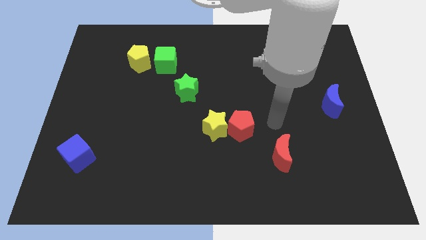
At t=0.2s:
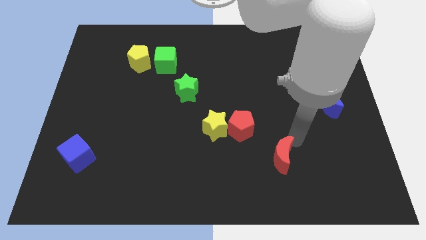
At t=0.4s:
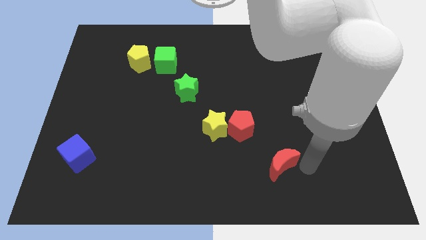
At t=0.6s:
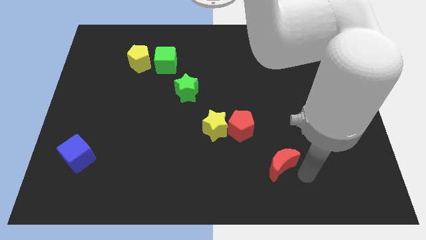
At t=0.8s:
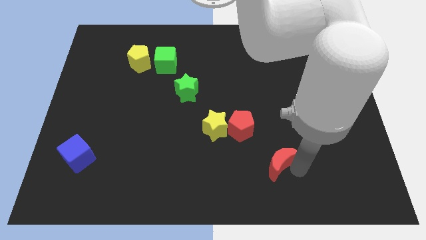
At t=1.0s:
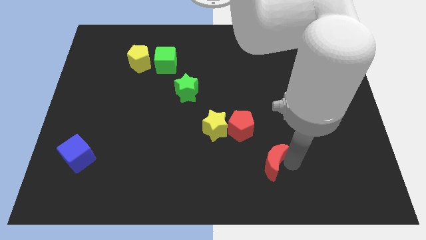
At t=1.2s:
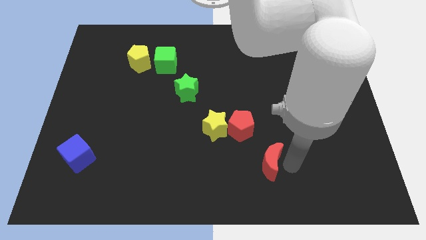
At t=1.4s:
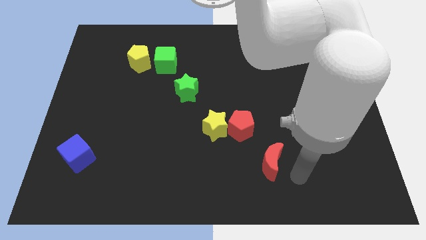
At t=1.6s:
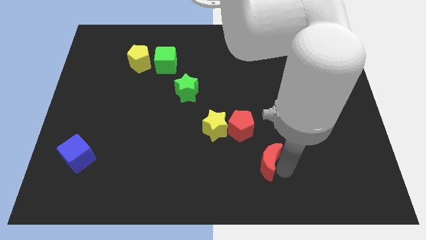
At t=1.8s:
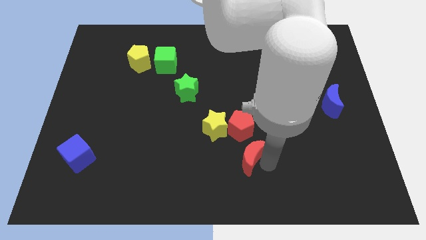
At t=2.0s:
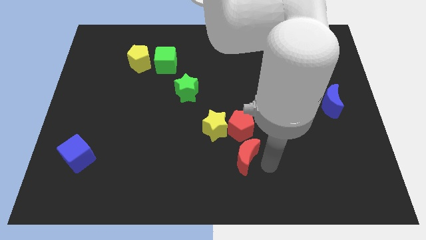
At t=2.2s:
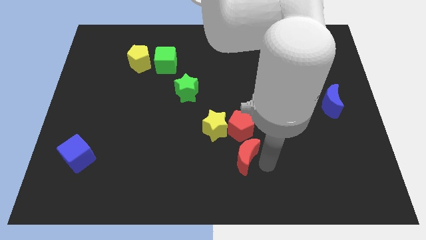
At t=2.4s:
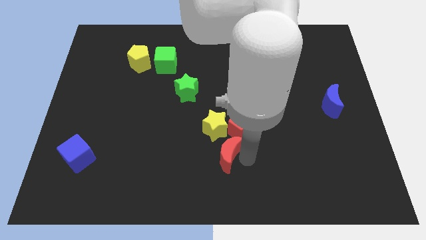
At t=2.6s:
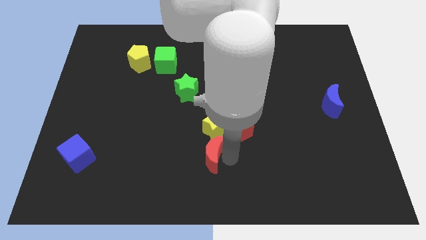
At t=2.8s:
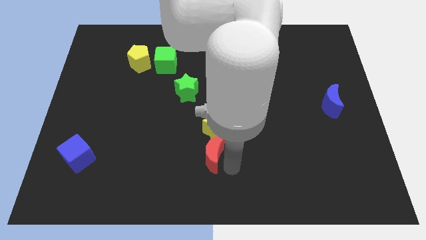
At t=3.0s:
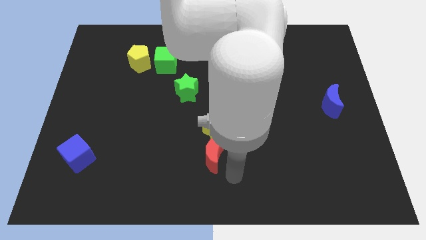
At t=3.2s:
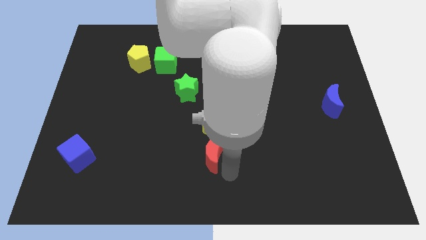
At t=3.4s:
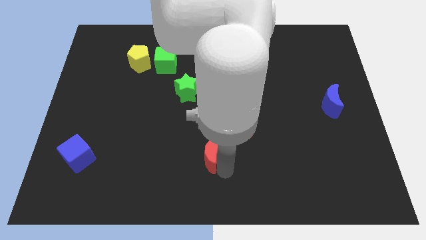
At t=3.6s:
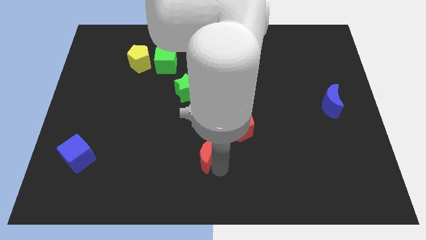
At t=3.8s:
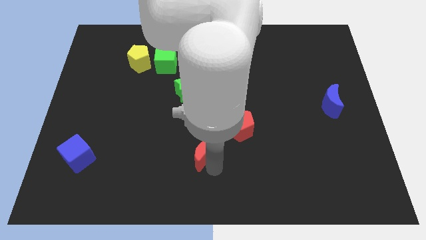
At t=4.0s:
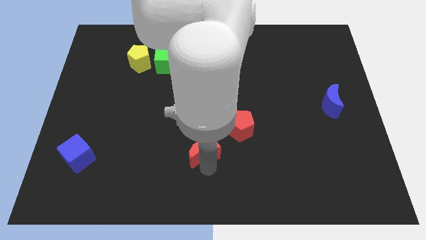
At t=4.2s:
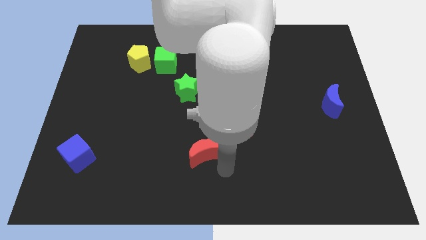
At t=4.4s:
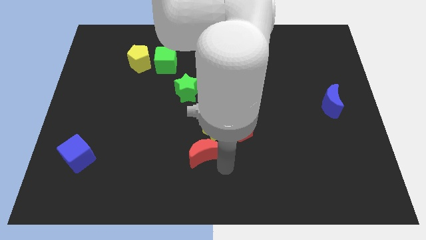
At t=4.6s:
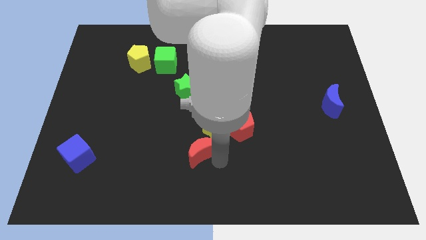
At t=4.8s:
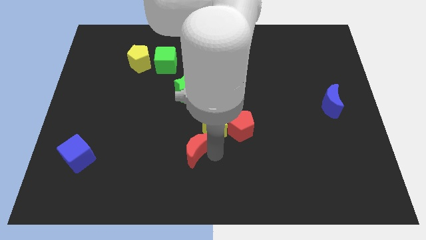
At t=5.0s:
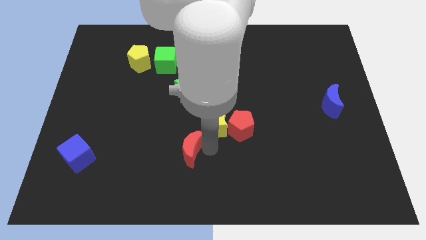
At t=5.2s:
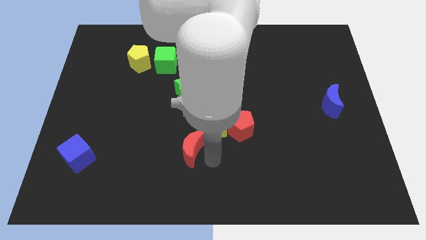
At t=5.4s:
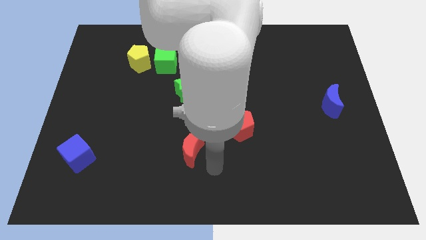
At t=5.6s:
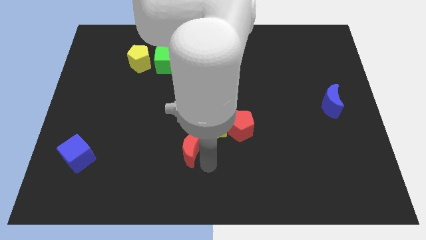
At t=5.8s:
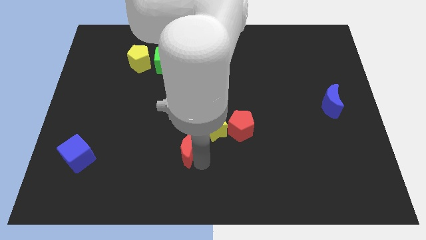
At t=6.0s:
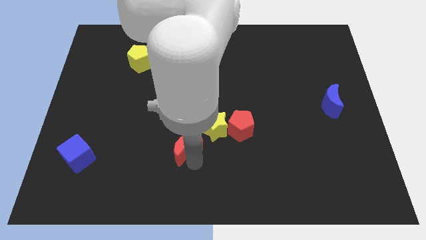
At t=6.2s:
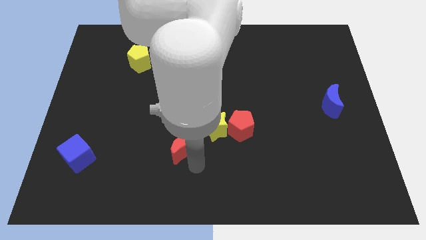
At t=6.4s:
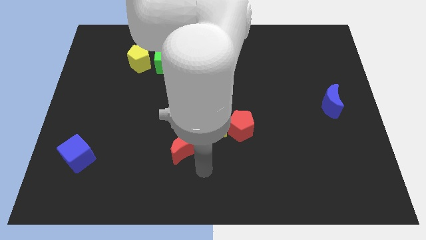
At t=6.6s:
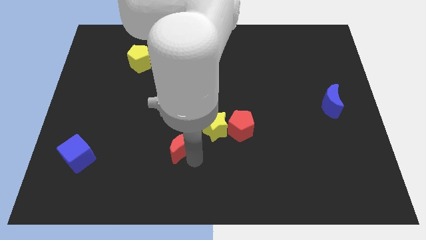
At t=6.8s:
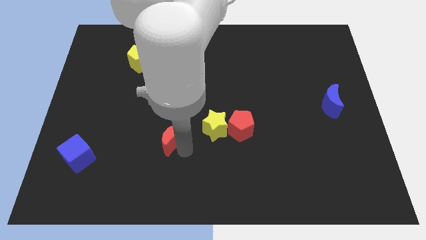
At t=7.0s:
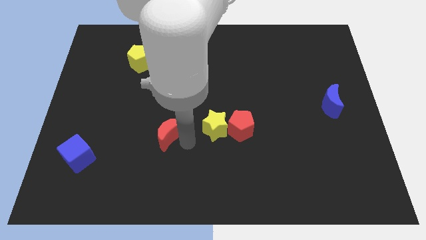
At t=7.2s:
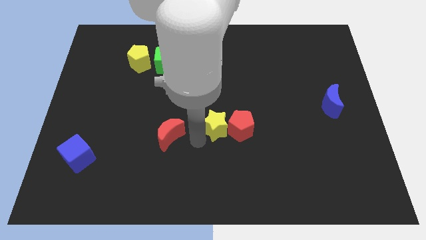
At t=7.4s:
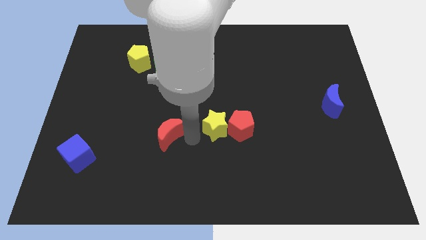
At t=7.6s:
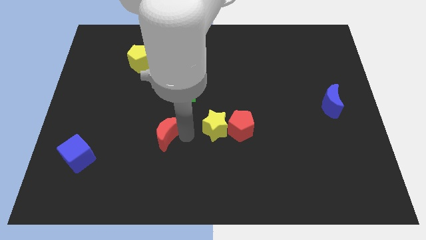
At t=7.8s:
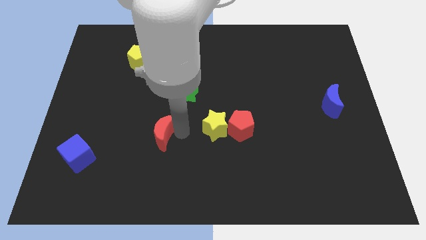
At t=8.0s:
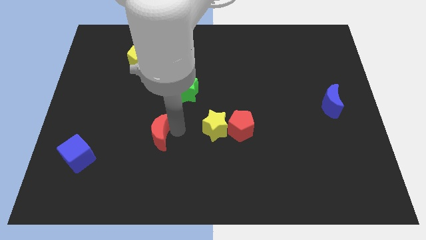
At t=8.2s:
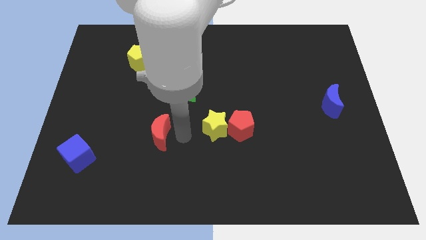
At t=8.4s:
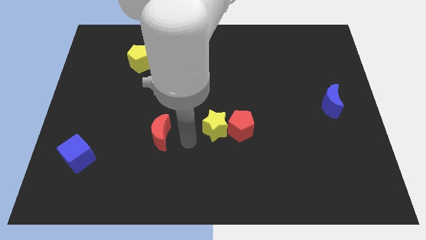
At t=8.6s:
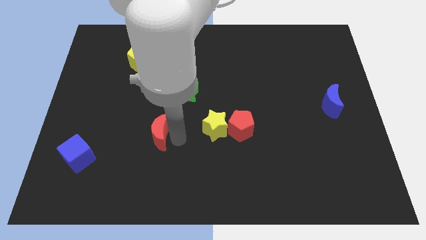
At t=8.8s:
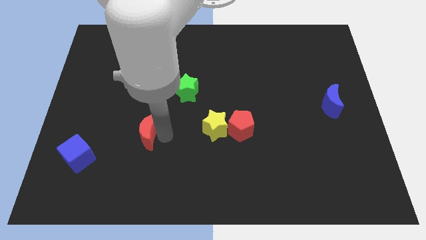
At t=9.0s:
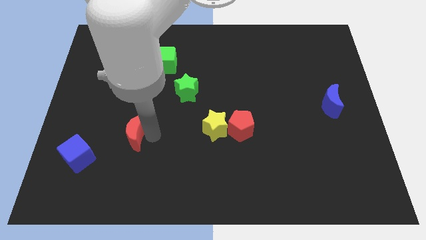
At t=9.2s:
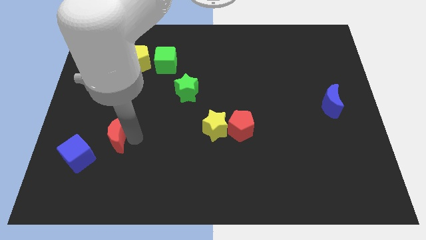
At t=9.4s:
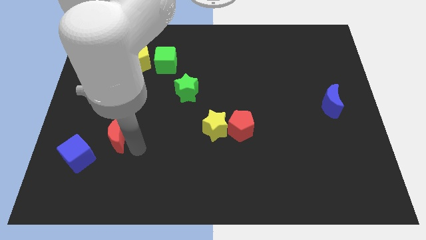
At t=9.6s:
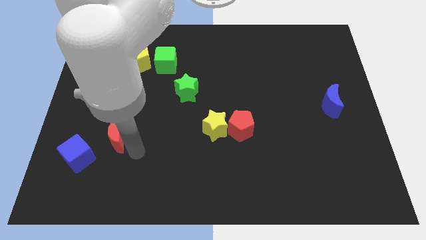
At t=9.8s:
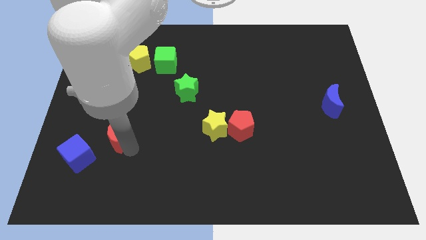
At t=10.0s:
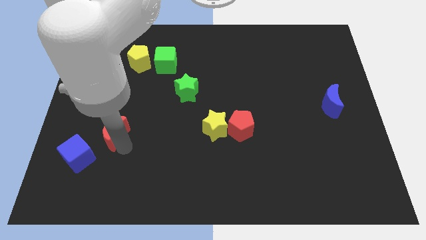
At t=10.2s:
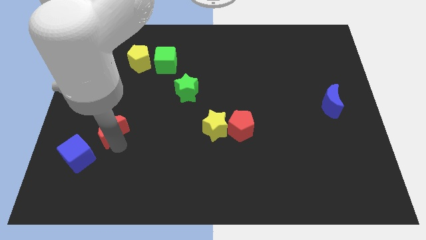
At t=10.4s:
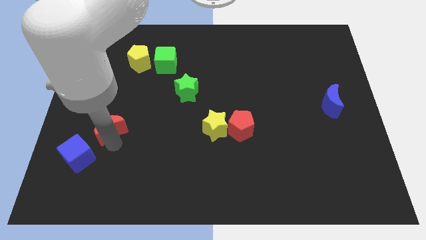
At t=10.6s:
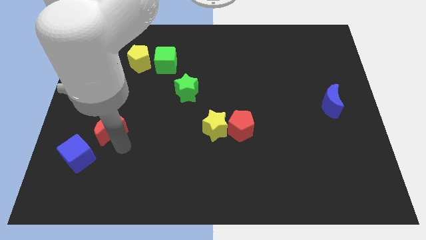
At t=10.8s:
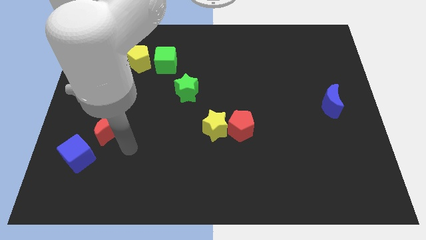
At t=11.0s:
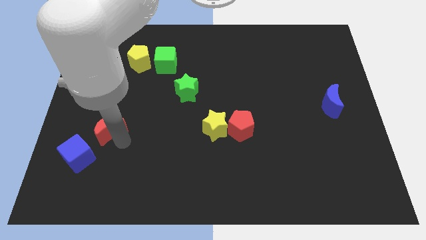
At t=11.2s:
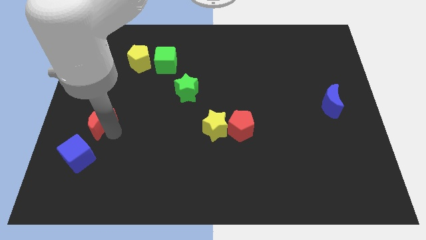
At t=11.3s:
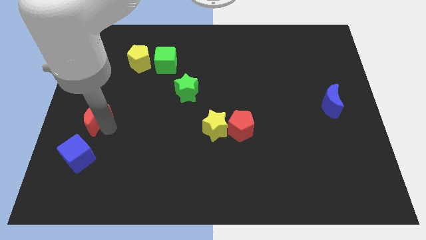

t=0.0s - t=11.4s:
put the red moon to the center left

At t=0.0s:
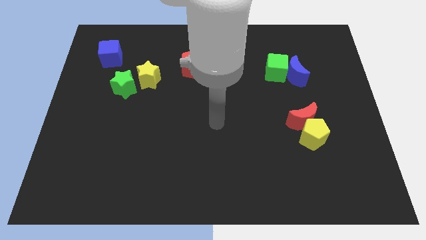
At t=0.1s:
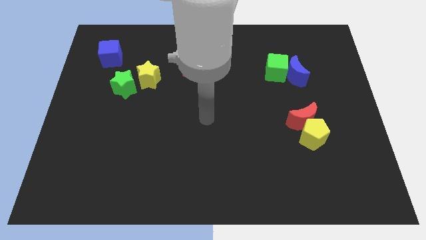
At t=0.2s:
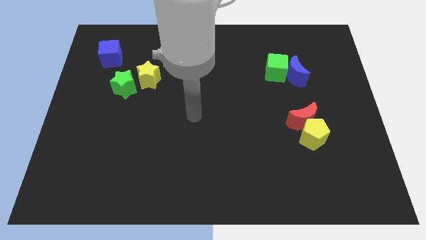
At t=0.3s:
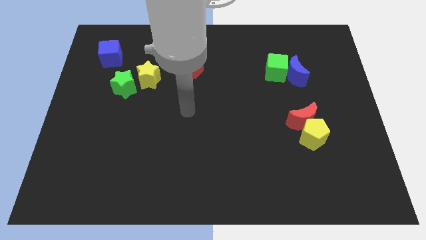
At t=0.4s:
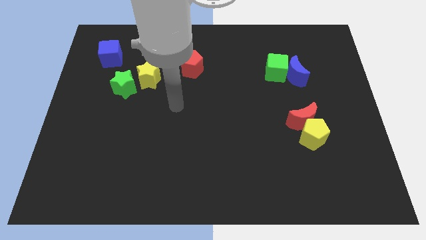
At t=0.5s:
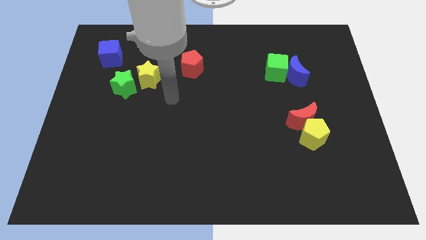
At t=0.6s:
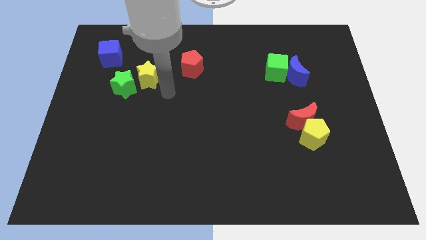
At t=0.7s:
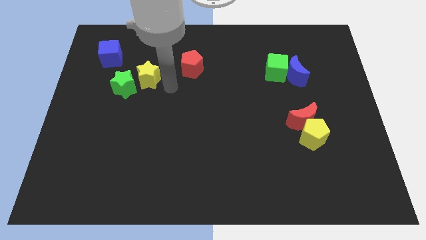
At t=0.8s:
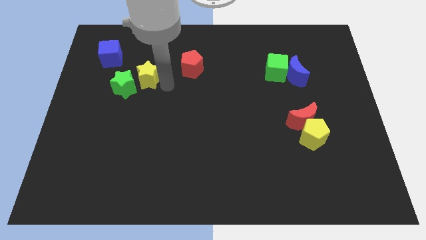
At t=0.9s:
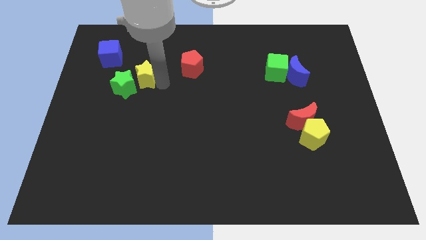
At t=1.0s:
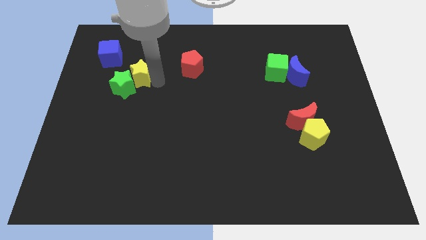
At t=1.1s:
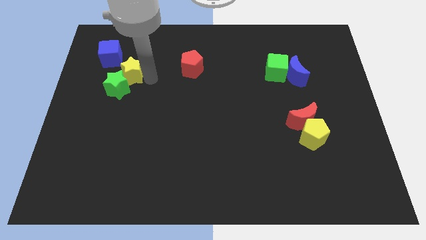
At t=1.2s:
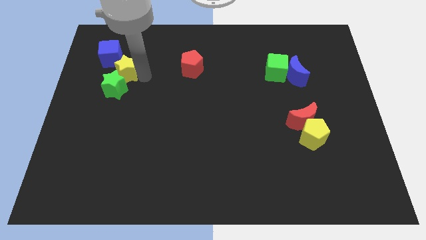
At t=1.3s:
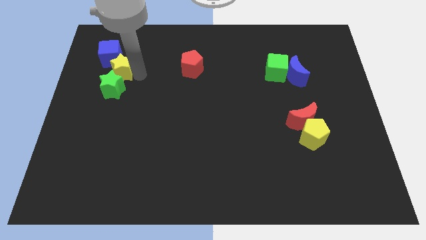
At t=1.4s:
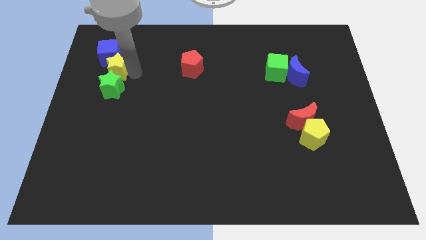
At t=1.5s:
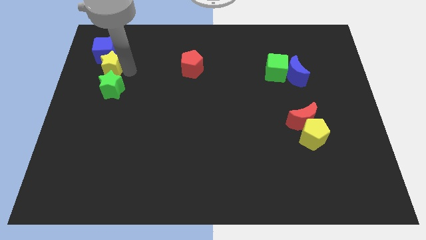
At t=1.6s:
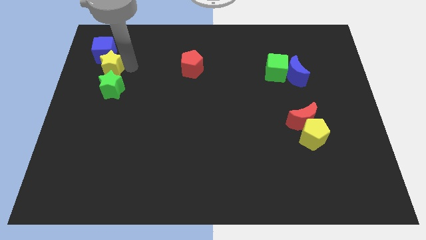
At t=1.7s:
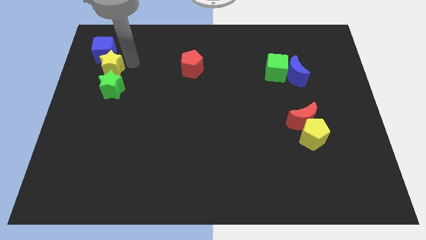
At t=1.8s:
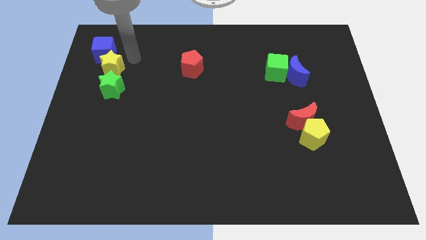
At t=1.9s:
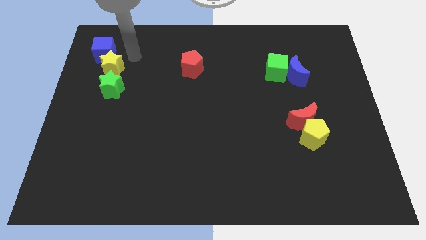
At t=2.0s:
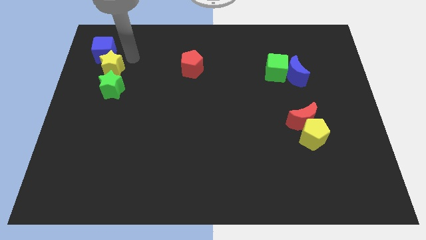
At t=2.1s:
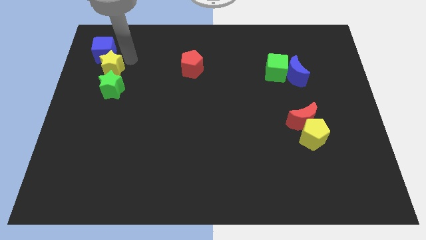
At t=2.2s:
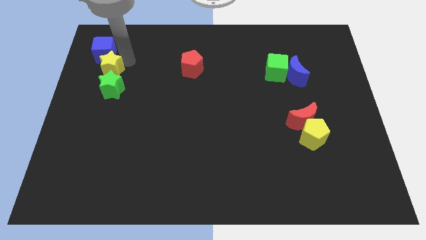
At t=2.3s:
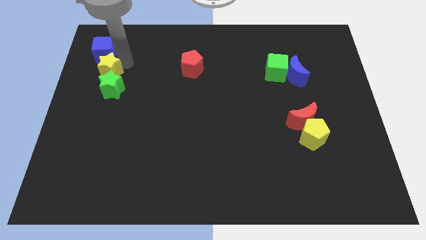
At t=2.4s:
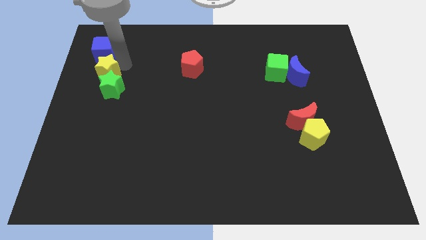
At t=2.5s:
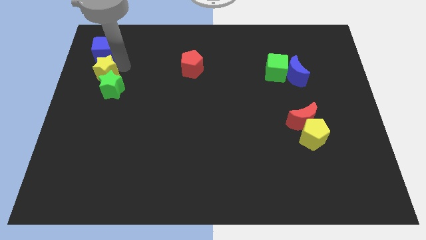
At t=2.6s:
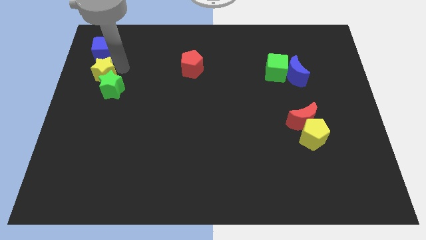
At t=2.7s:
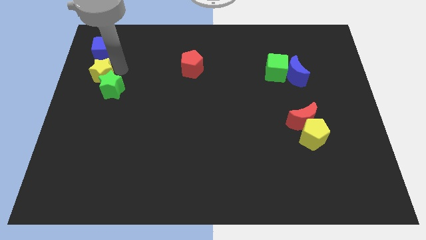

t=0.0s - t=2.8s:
push the yellow star to the center left
